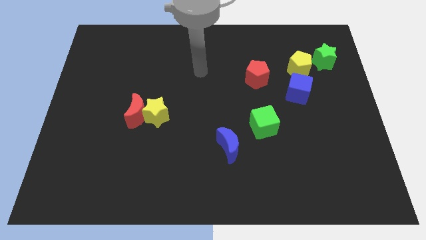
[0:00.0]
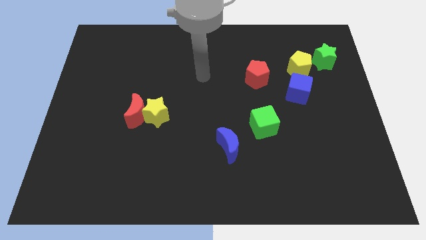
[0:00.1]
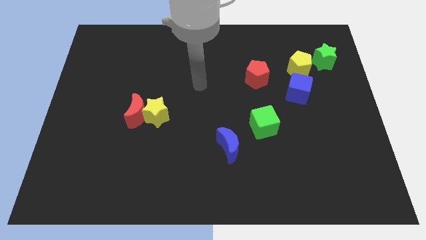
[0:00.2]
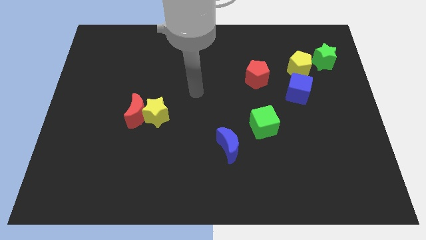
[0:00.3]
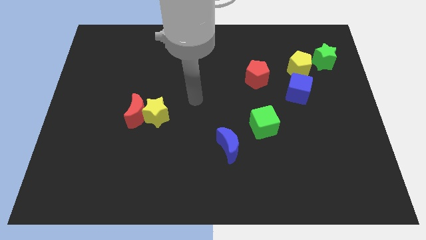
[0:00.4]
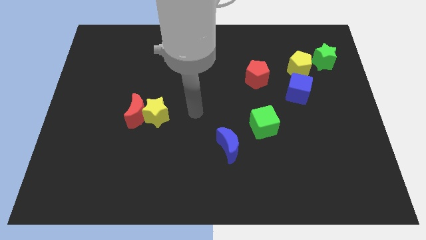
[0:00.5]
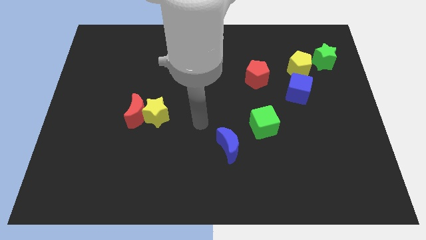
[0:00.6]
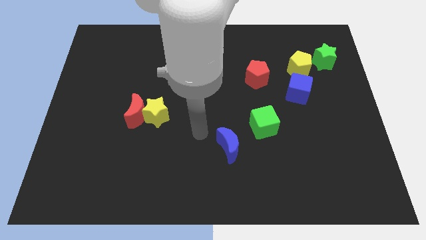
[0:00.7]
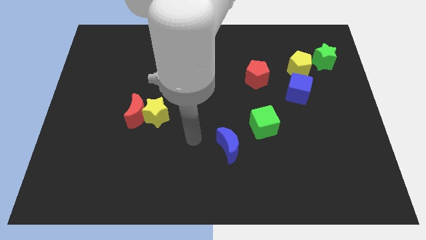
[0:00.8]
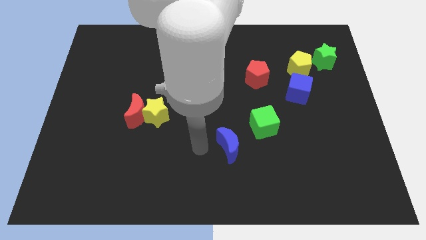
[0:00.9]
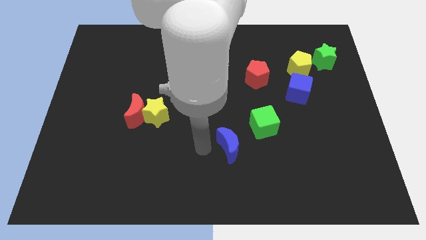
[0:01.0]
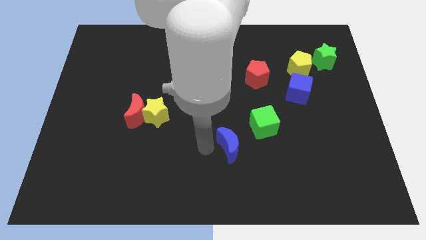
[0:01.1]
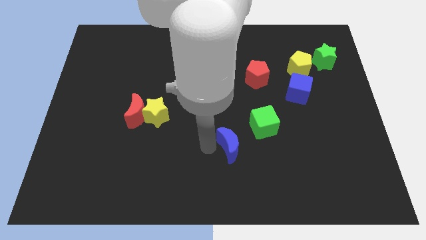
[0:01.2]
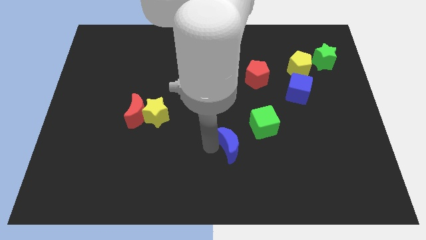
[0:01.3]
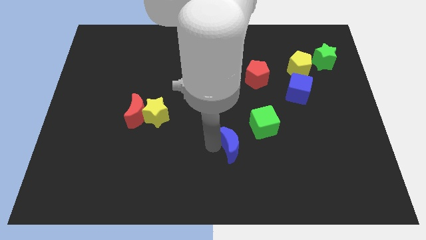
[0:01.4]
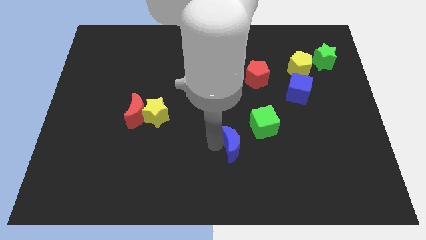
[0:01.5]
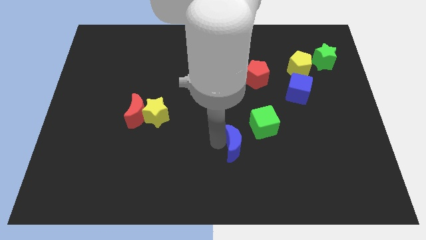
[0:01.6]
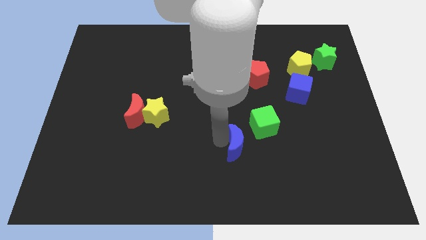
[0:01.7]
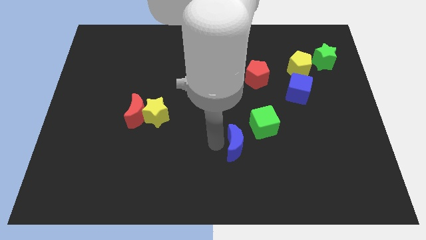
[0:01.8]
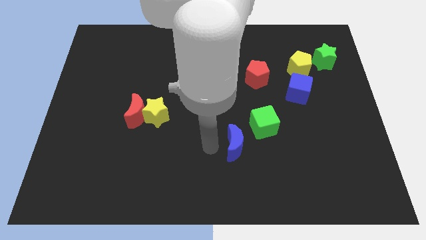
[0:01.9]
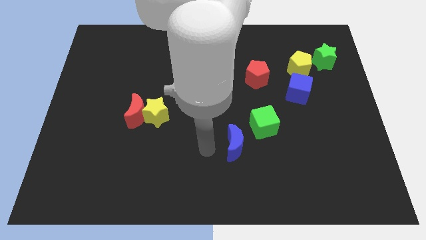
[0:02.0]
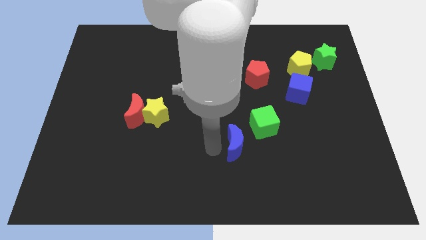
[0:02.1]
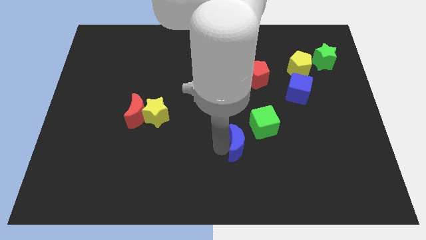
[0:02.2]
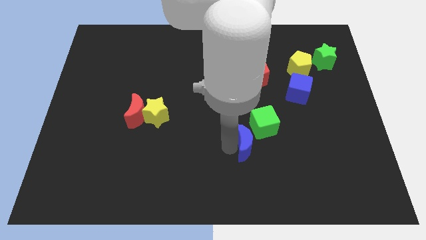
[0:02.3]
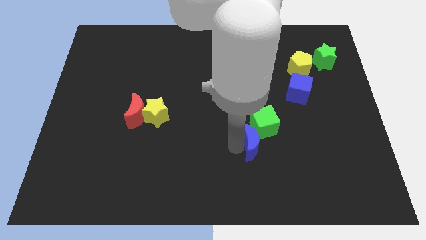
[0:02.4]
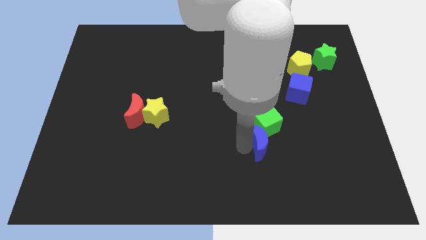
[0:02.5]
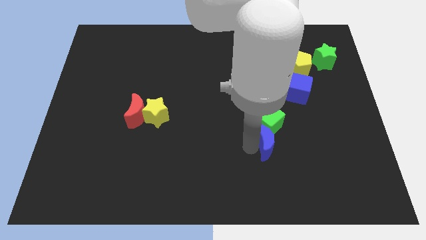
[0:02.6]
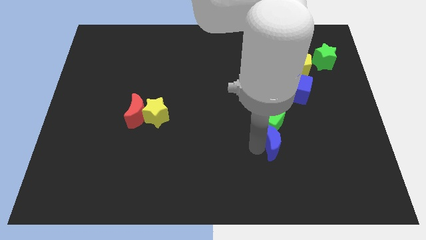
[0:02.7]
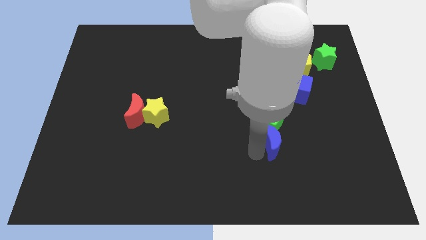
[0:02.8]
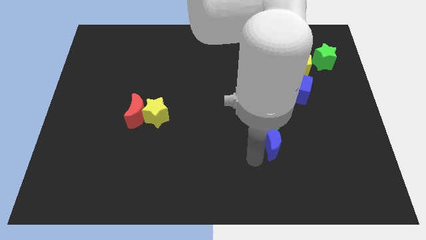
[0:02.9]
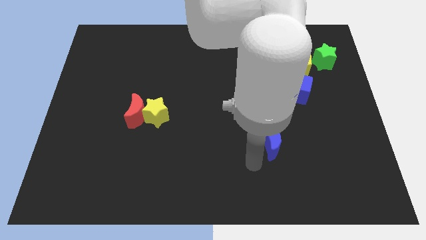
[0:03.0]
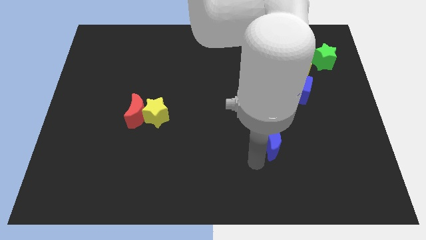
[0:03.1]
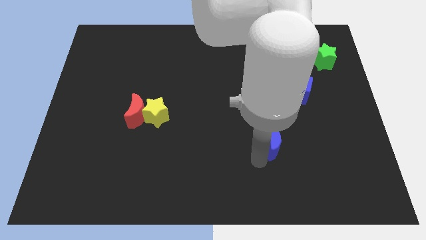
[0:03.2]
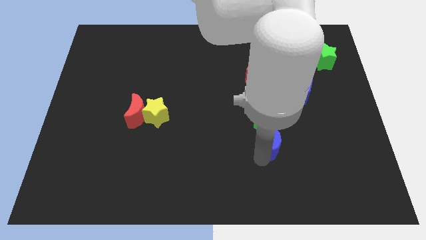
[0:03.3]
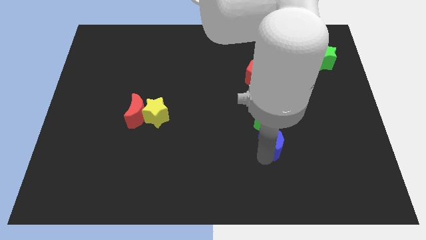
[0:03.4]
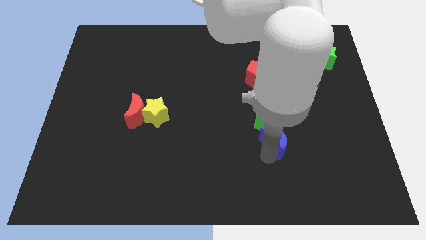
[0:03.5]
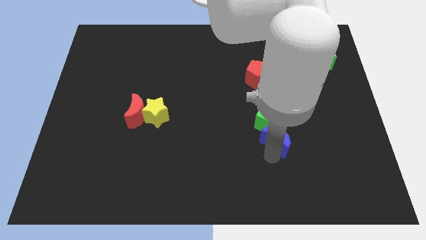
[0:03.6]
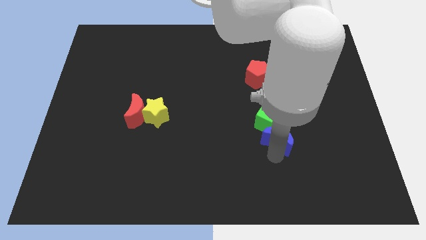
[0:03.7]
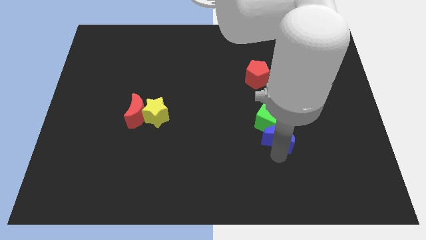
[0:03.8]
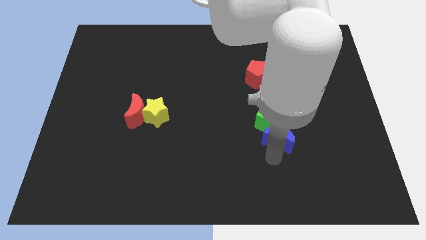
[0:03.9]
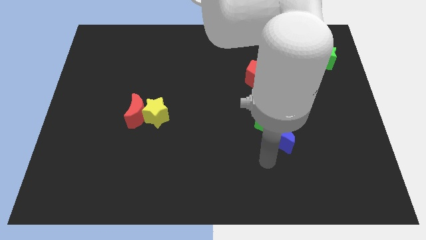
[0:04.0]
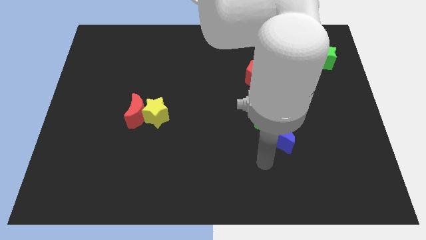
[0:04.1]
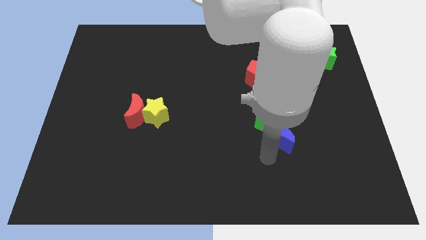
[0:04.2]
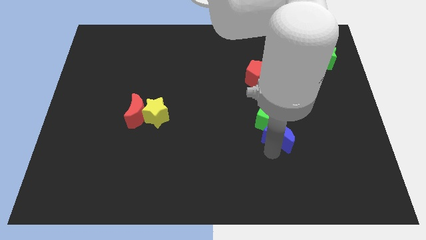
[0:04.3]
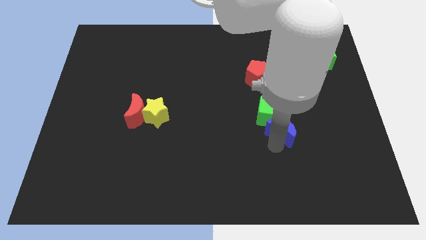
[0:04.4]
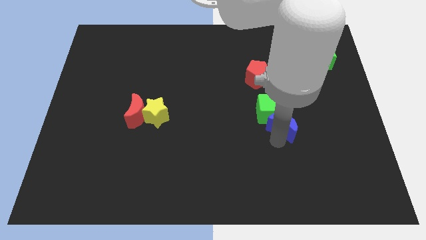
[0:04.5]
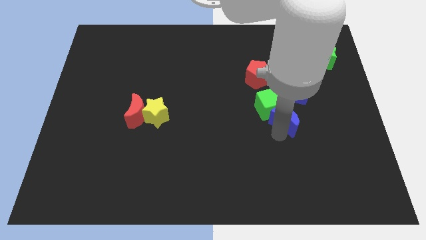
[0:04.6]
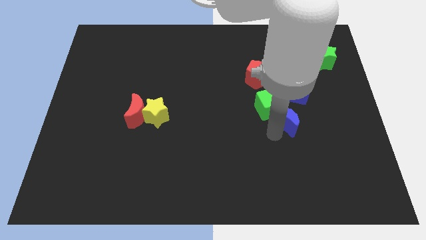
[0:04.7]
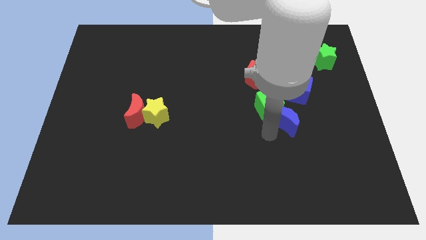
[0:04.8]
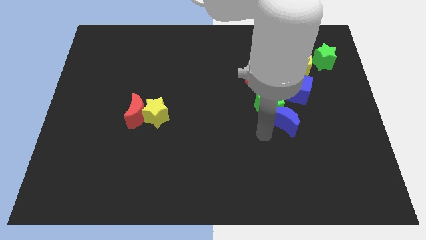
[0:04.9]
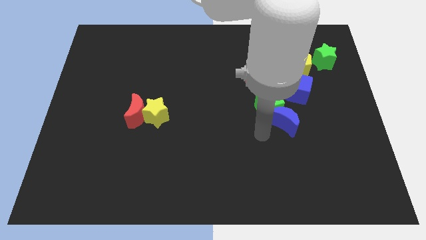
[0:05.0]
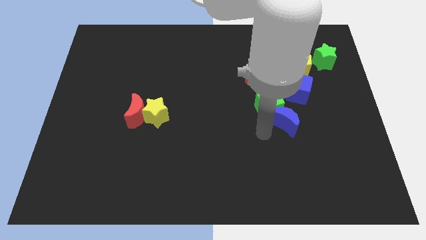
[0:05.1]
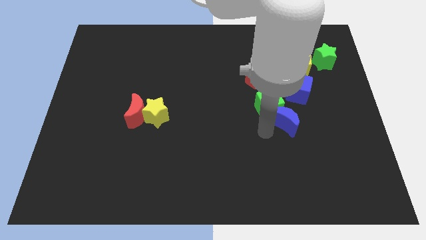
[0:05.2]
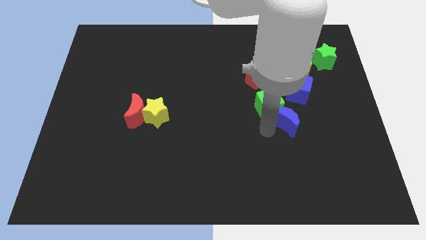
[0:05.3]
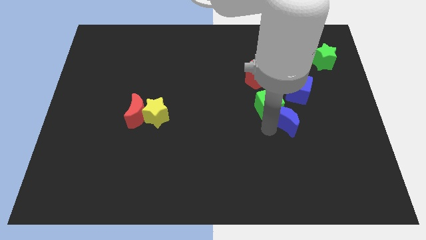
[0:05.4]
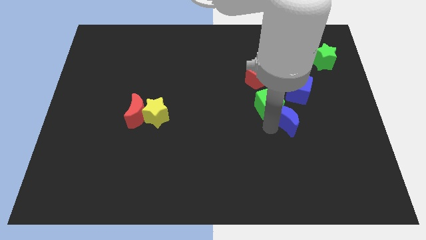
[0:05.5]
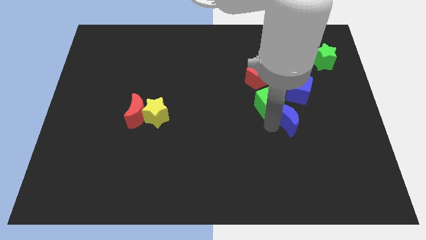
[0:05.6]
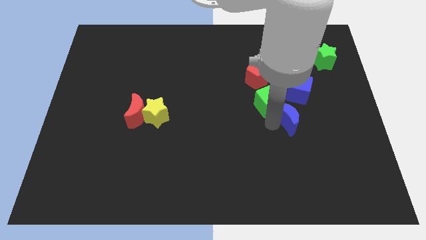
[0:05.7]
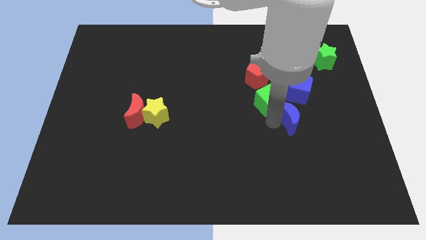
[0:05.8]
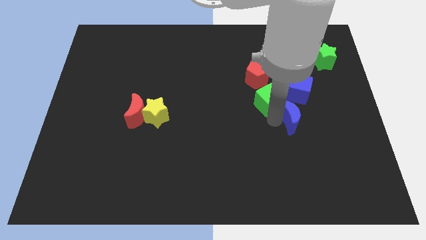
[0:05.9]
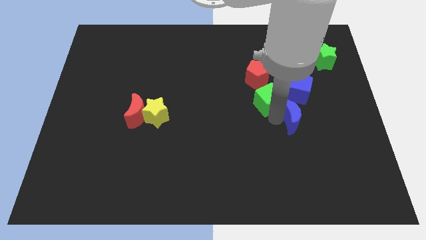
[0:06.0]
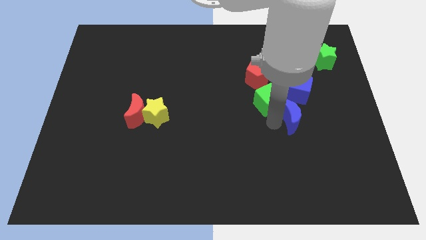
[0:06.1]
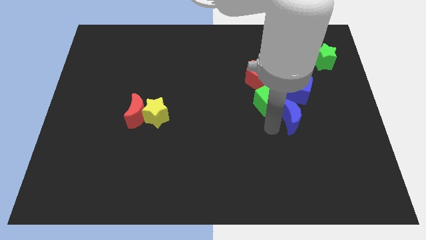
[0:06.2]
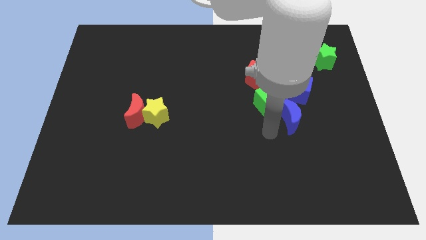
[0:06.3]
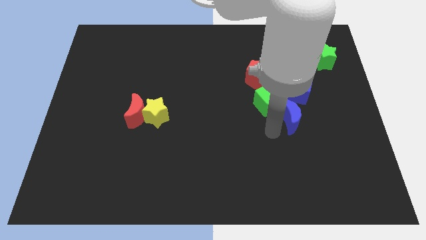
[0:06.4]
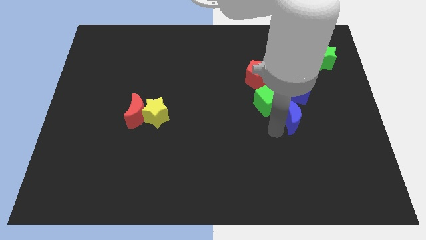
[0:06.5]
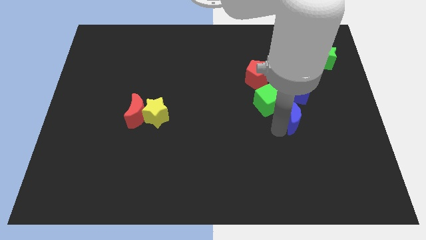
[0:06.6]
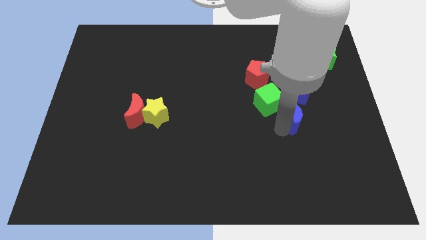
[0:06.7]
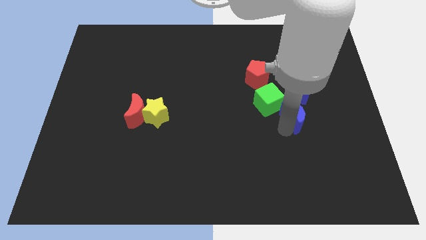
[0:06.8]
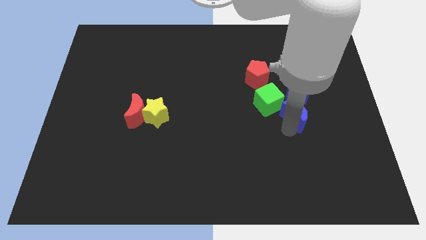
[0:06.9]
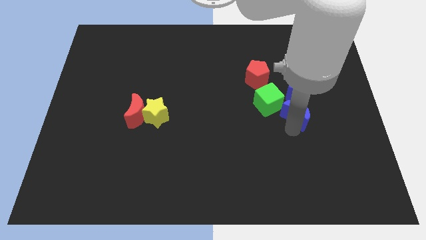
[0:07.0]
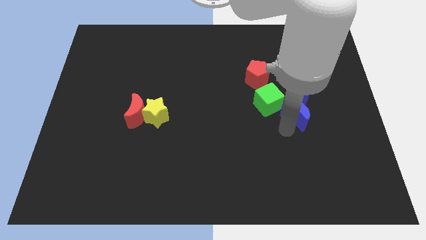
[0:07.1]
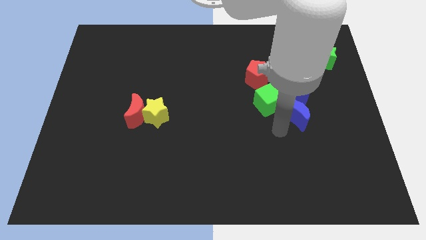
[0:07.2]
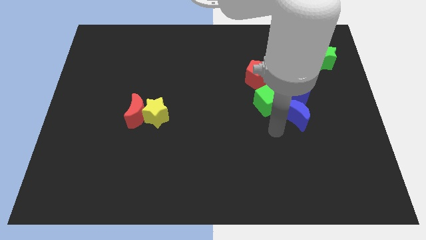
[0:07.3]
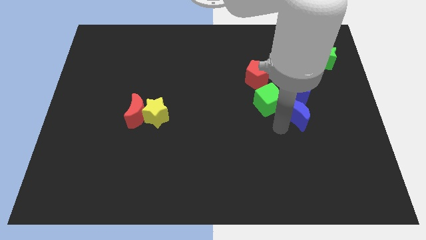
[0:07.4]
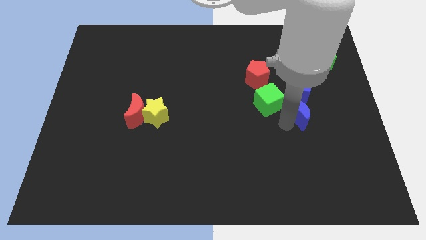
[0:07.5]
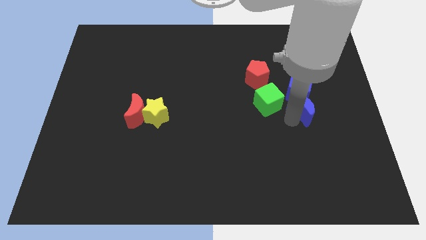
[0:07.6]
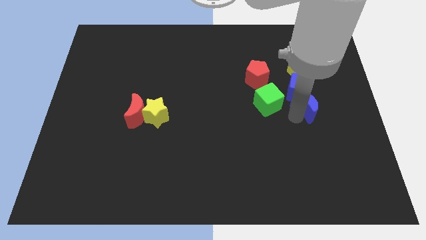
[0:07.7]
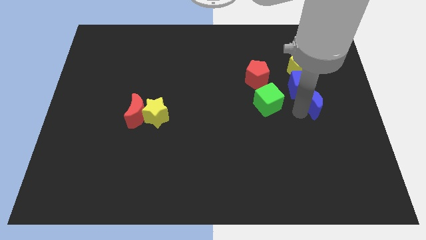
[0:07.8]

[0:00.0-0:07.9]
push the blue moon diagonally upwards and right

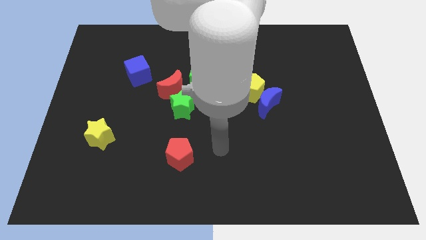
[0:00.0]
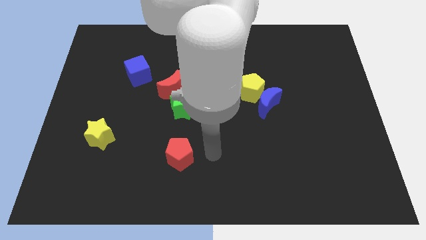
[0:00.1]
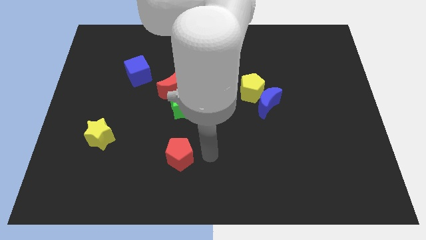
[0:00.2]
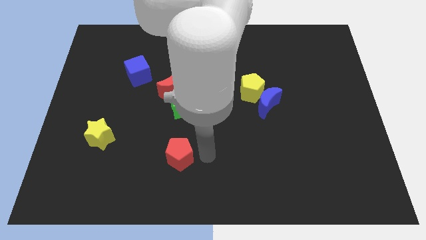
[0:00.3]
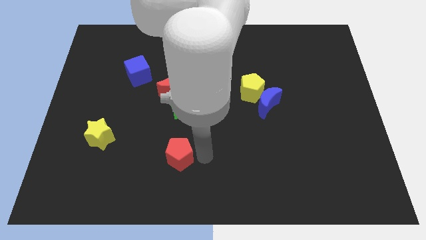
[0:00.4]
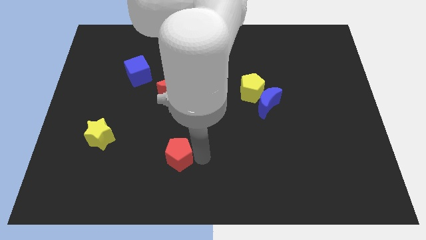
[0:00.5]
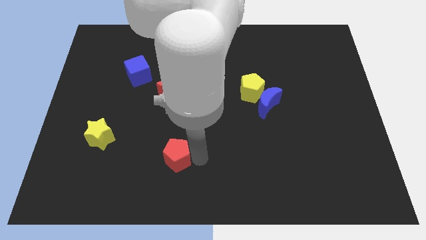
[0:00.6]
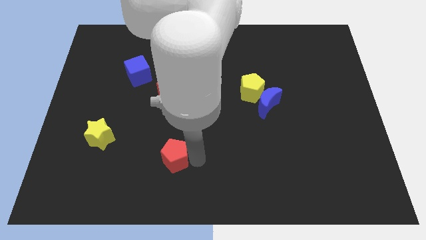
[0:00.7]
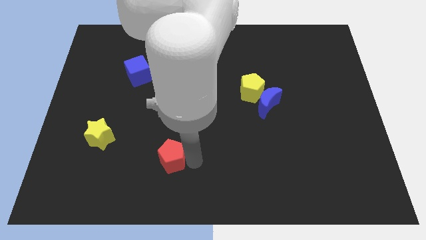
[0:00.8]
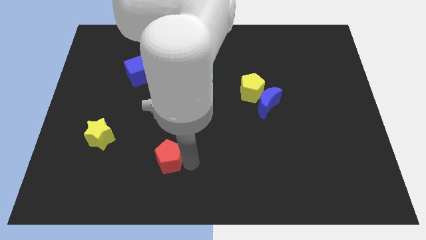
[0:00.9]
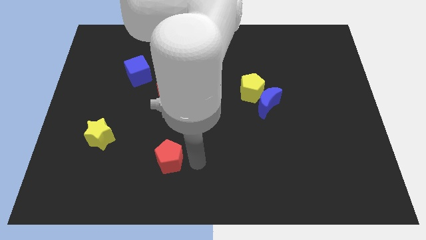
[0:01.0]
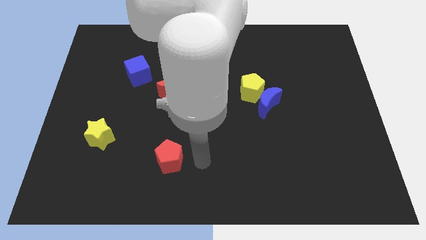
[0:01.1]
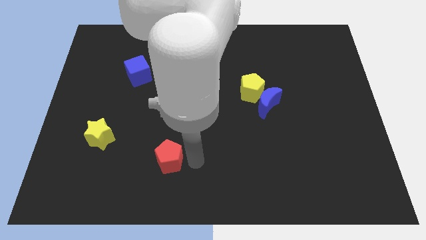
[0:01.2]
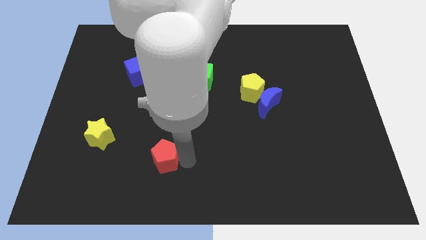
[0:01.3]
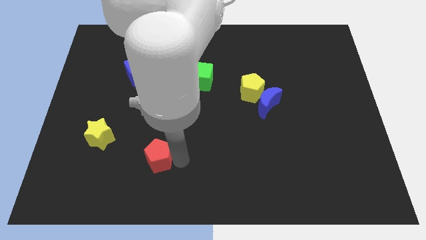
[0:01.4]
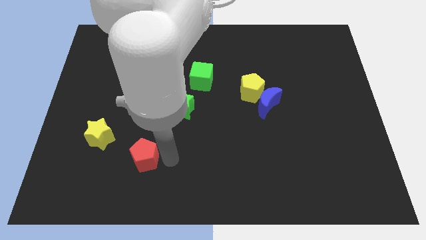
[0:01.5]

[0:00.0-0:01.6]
slightly push the red pentagon left
